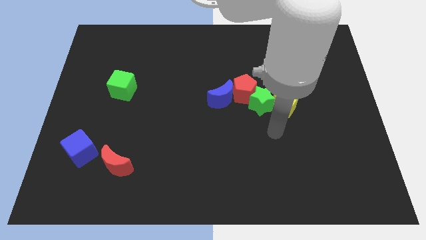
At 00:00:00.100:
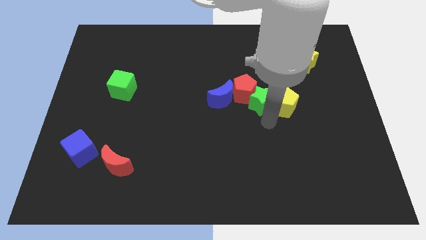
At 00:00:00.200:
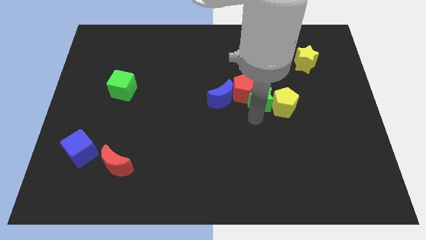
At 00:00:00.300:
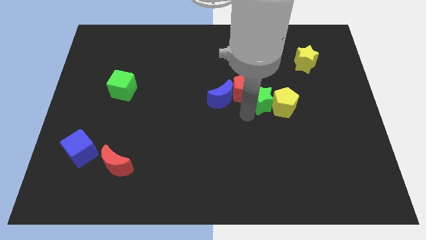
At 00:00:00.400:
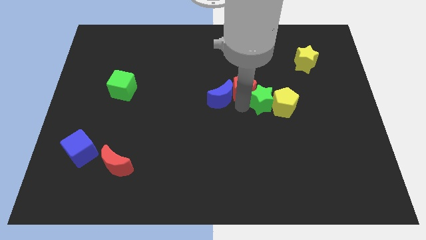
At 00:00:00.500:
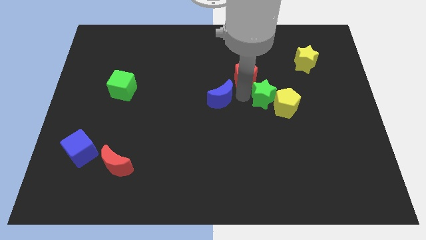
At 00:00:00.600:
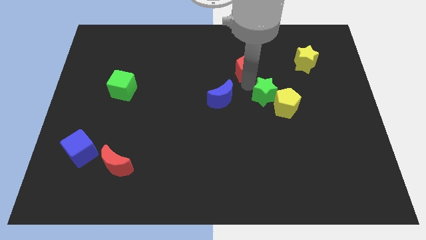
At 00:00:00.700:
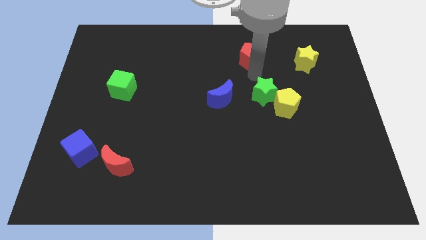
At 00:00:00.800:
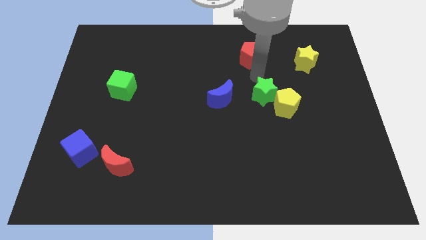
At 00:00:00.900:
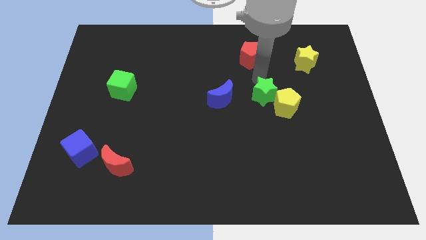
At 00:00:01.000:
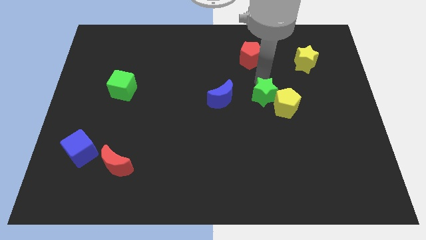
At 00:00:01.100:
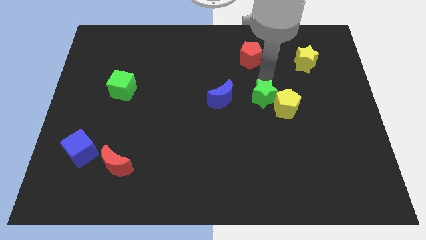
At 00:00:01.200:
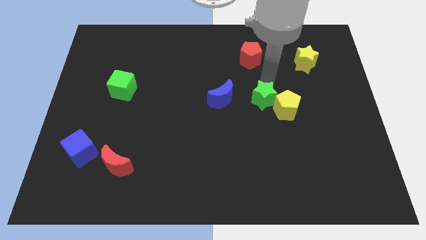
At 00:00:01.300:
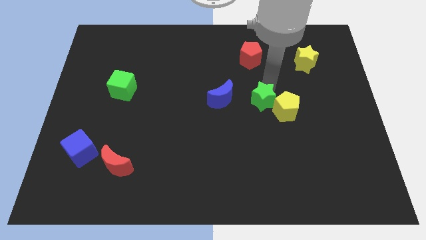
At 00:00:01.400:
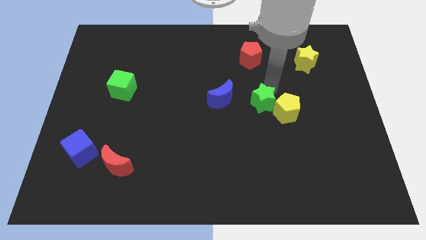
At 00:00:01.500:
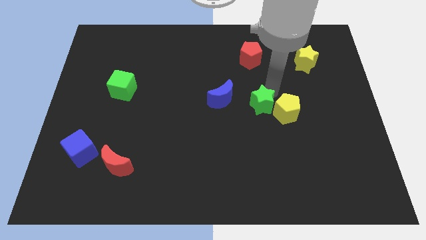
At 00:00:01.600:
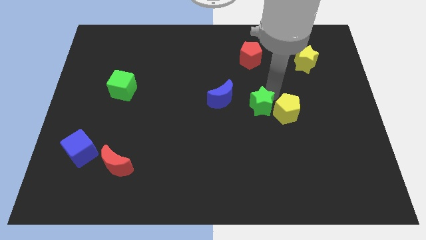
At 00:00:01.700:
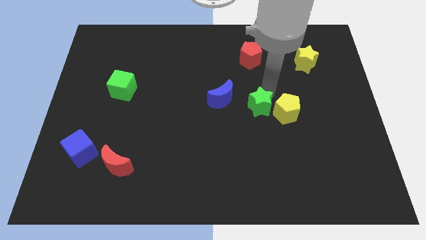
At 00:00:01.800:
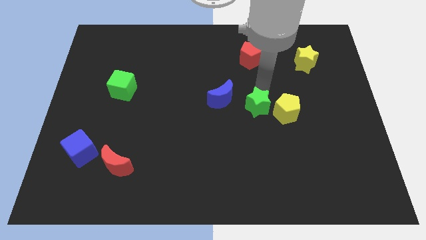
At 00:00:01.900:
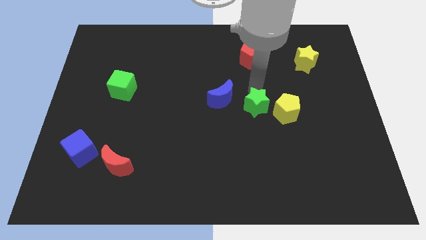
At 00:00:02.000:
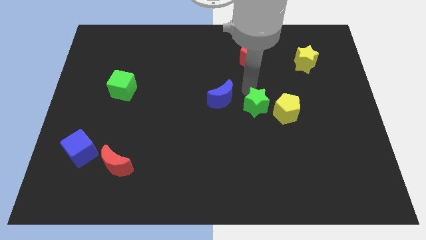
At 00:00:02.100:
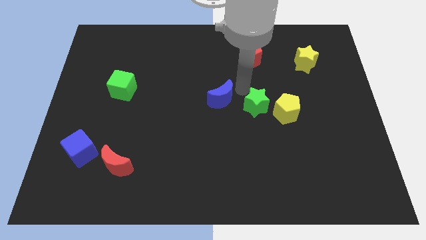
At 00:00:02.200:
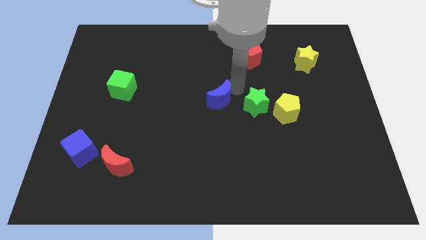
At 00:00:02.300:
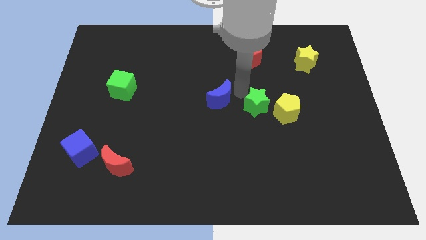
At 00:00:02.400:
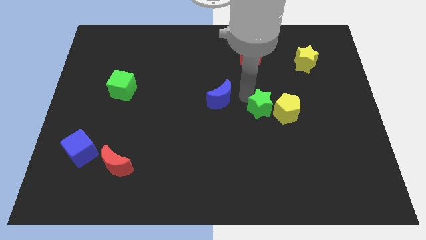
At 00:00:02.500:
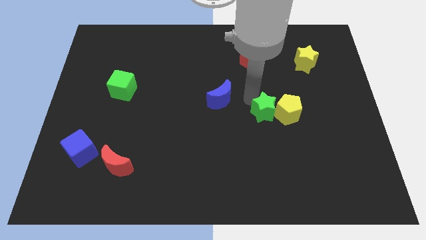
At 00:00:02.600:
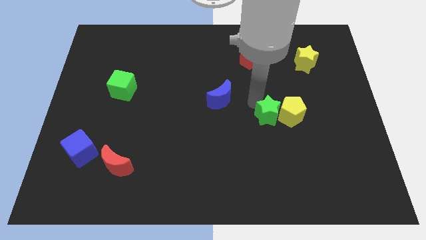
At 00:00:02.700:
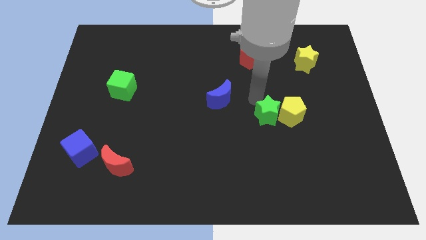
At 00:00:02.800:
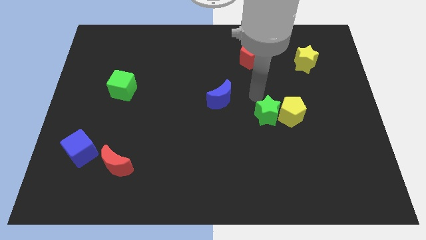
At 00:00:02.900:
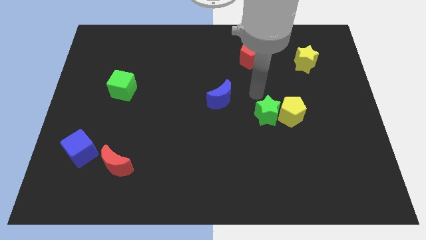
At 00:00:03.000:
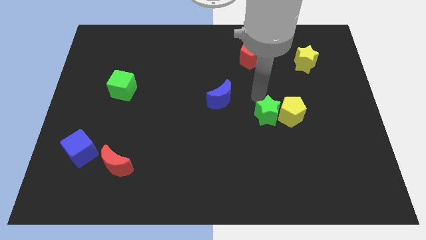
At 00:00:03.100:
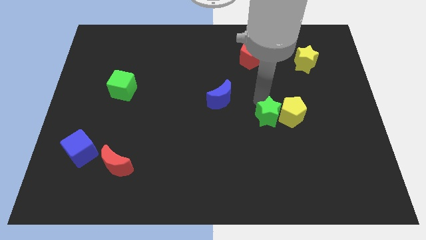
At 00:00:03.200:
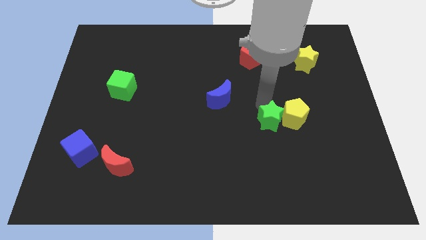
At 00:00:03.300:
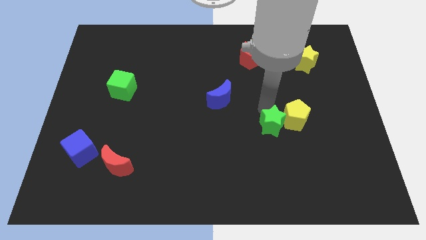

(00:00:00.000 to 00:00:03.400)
pull the green star apart from the red pentagon, yellow pentagon, and blue moon

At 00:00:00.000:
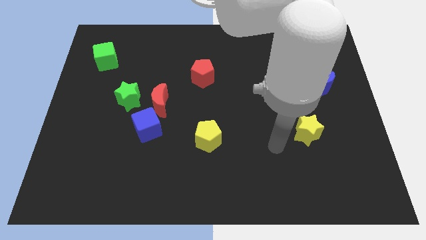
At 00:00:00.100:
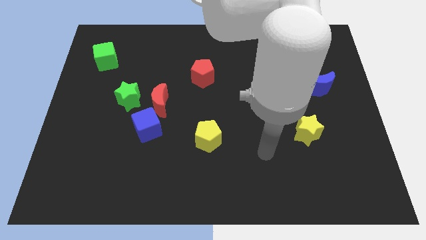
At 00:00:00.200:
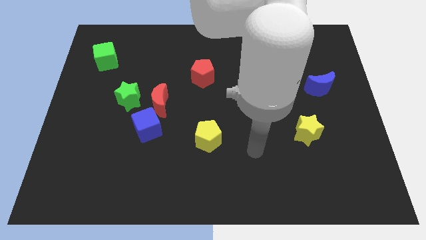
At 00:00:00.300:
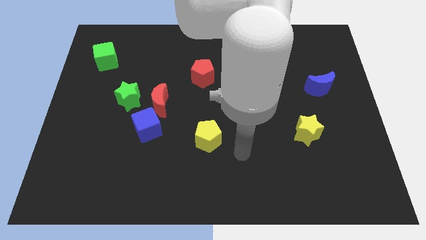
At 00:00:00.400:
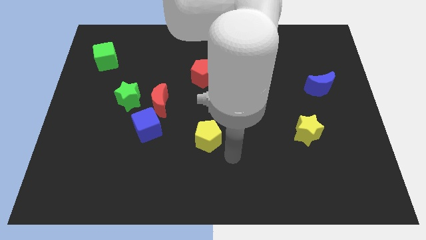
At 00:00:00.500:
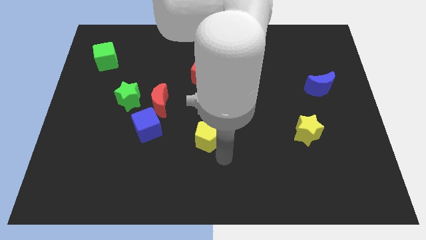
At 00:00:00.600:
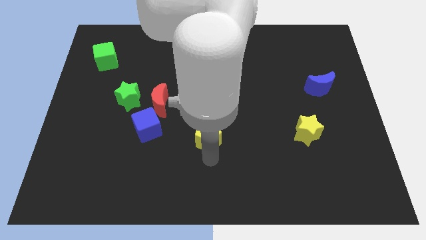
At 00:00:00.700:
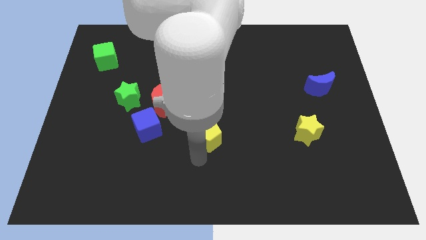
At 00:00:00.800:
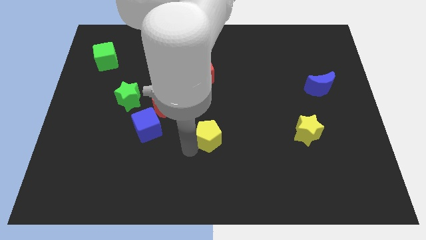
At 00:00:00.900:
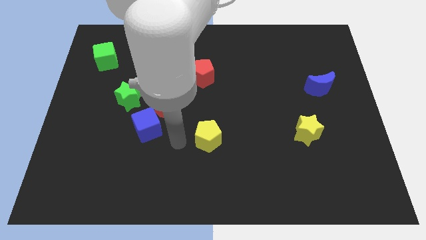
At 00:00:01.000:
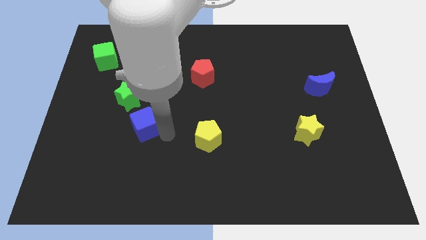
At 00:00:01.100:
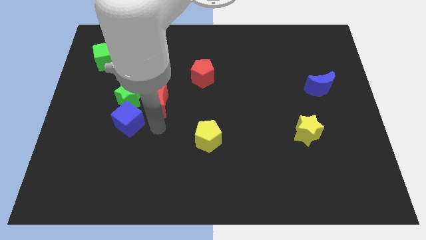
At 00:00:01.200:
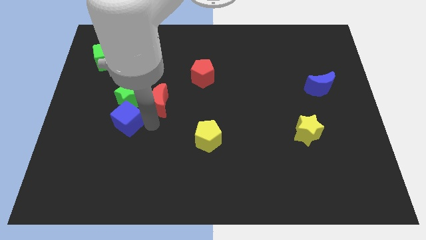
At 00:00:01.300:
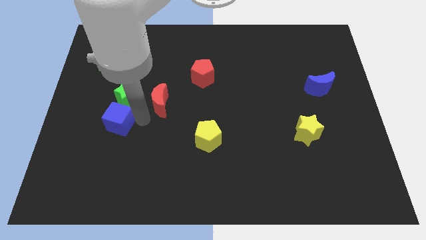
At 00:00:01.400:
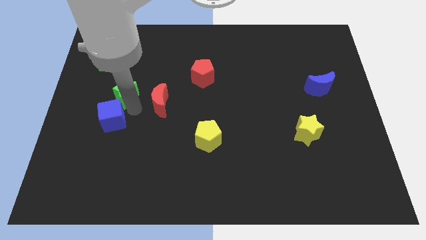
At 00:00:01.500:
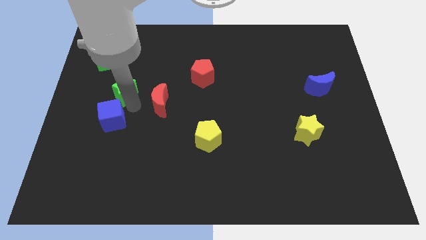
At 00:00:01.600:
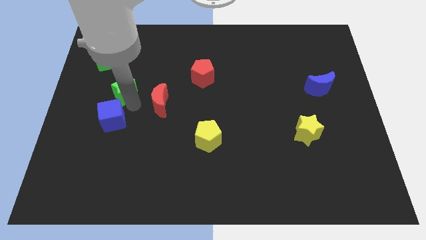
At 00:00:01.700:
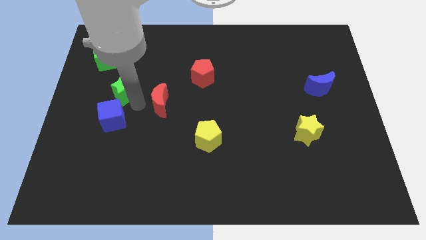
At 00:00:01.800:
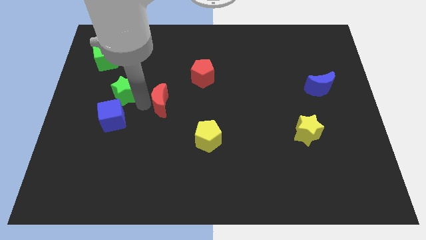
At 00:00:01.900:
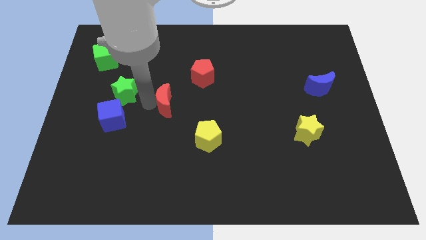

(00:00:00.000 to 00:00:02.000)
move the red moon away from the green star and blue cube

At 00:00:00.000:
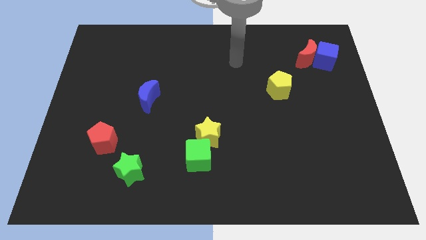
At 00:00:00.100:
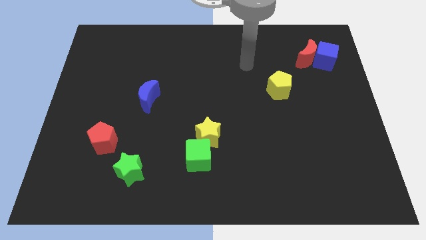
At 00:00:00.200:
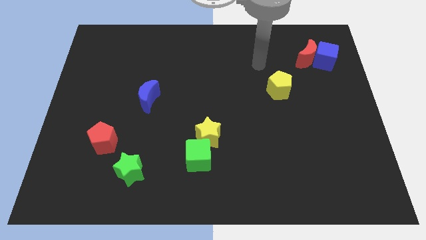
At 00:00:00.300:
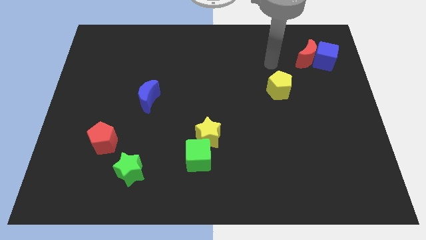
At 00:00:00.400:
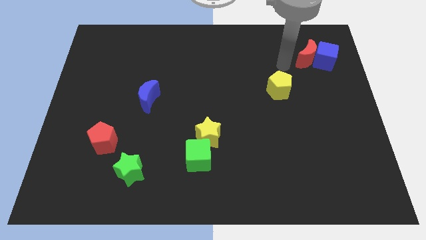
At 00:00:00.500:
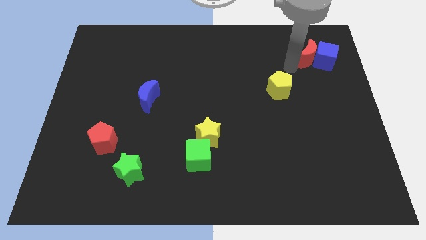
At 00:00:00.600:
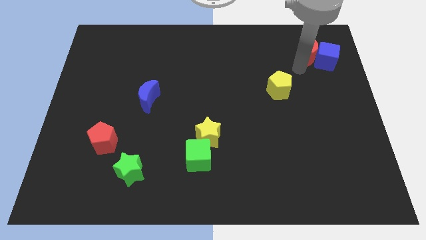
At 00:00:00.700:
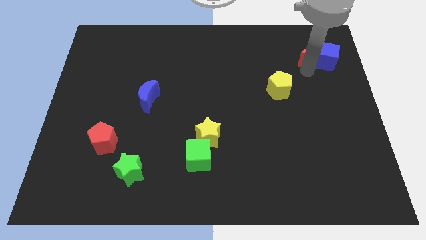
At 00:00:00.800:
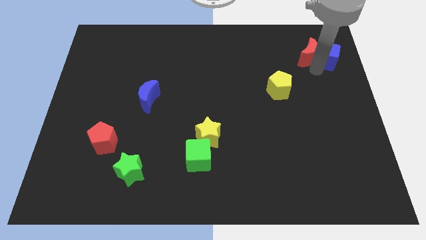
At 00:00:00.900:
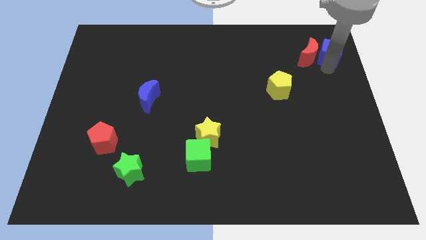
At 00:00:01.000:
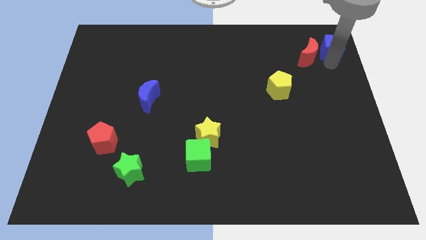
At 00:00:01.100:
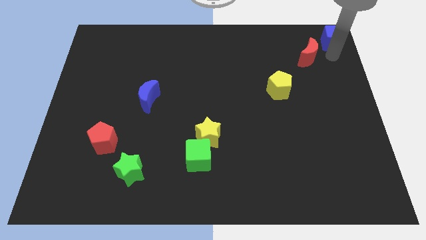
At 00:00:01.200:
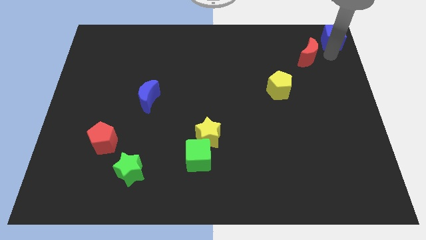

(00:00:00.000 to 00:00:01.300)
pull the red moon apart from the blue cube

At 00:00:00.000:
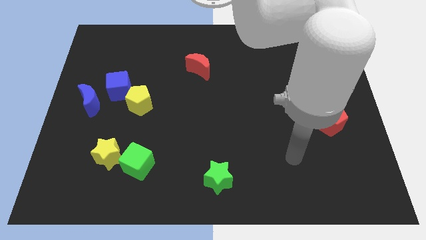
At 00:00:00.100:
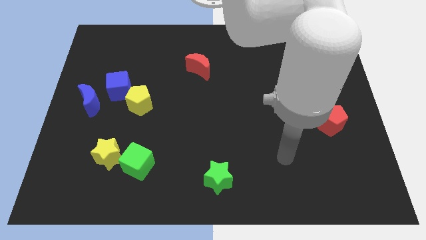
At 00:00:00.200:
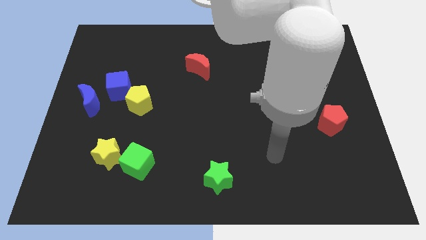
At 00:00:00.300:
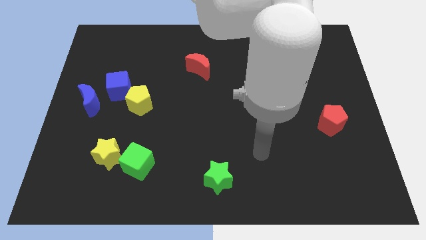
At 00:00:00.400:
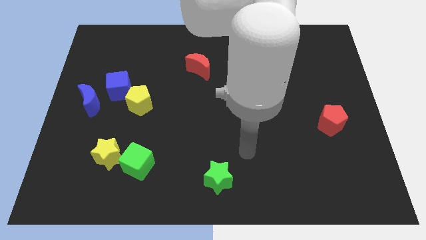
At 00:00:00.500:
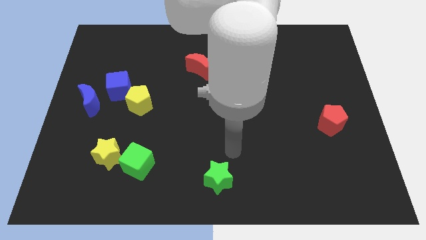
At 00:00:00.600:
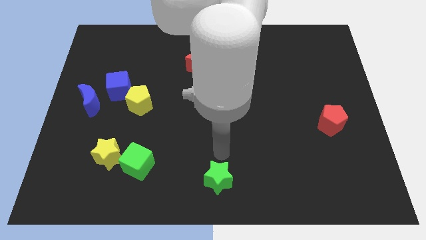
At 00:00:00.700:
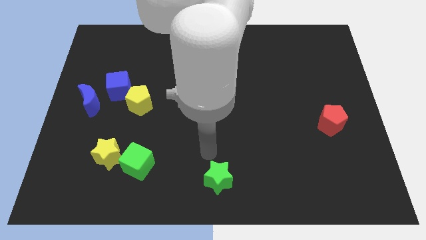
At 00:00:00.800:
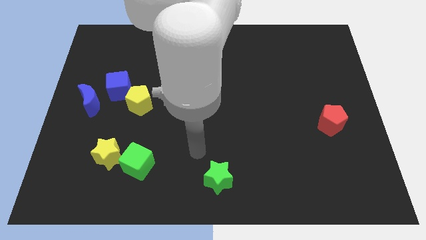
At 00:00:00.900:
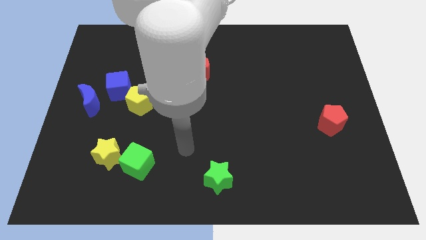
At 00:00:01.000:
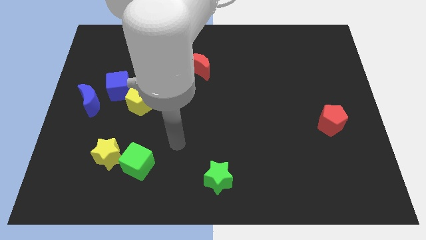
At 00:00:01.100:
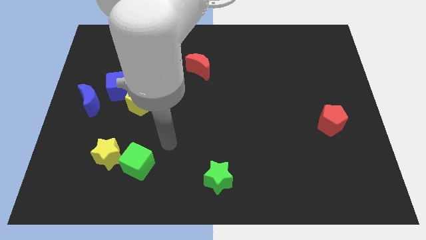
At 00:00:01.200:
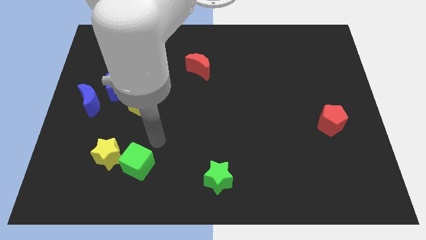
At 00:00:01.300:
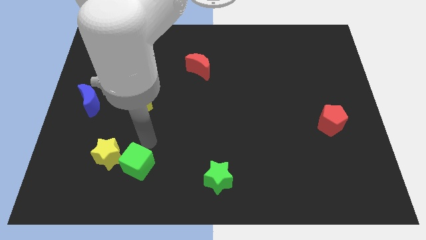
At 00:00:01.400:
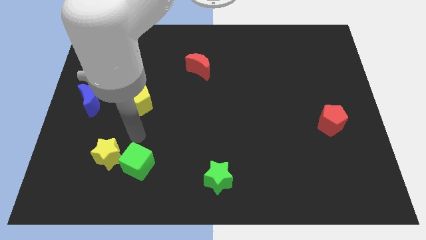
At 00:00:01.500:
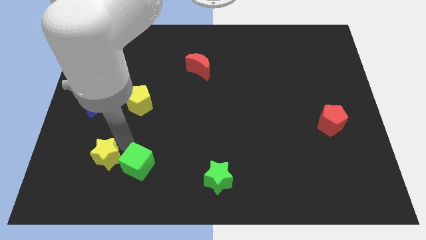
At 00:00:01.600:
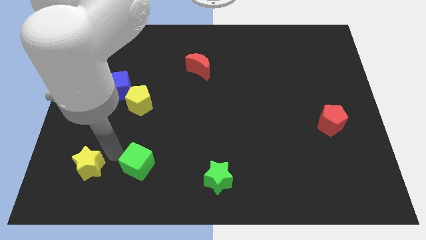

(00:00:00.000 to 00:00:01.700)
pull the green cube apart from the yellow star

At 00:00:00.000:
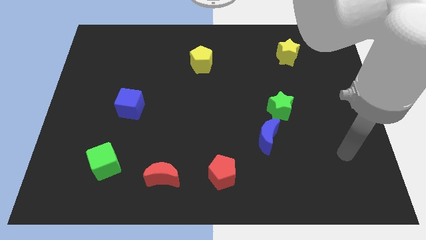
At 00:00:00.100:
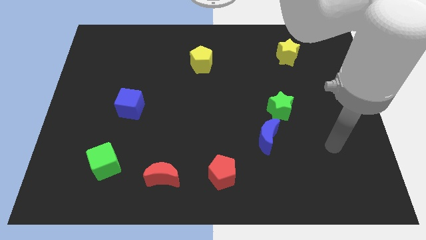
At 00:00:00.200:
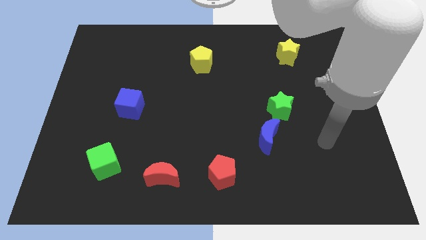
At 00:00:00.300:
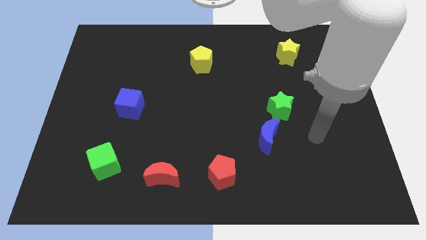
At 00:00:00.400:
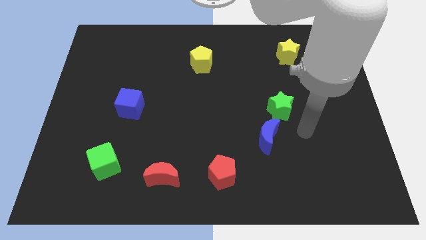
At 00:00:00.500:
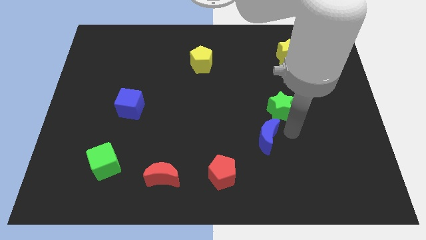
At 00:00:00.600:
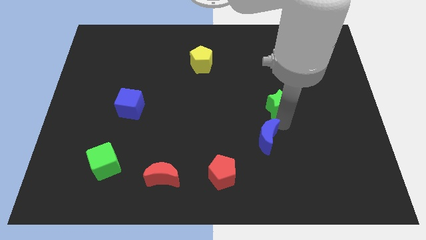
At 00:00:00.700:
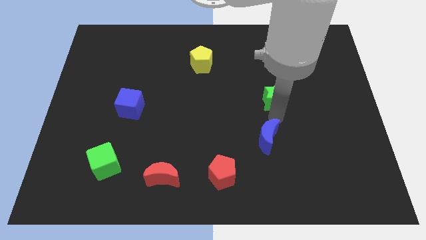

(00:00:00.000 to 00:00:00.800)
move the blue moon away from the green star

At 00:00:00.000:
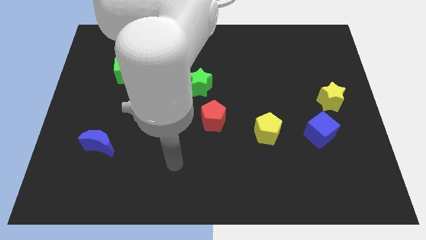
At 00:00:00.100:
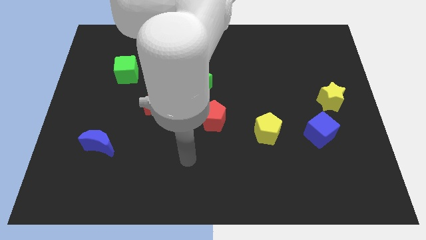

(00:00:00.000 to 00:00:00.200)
separate the blue cube from the yellow star
